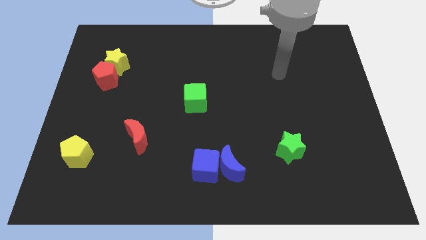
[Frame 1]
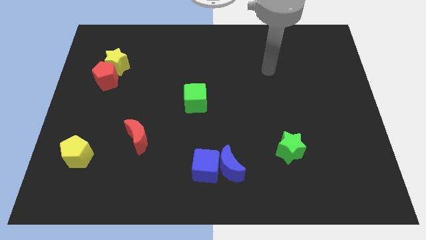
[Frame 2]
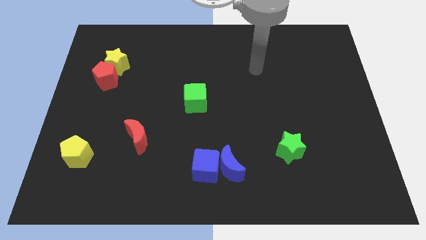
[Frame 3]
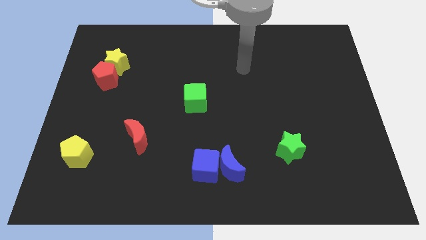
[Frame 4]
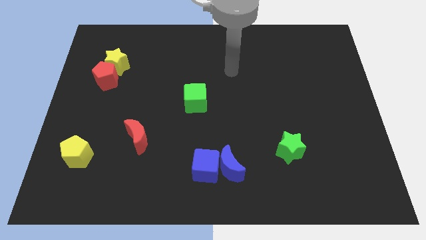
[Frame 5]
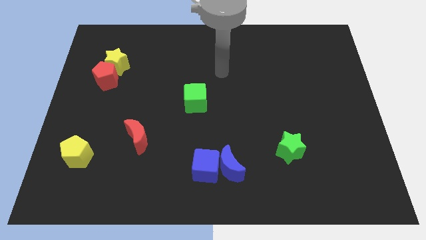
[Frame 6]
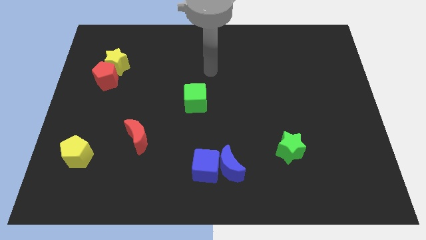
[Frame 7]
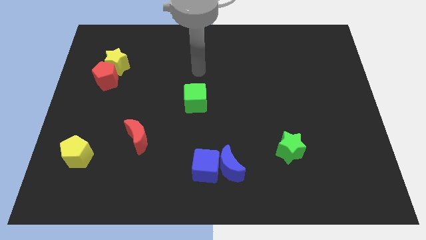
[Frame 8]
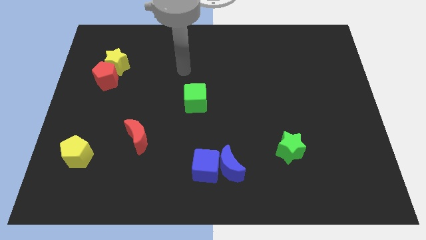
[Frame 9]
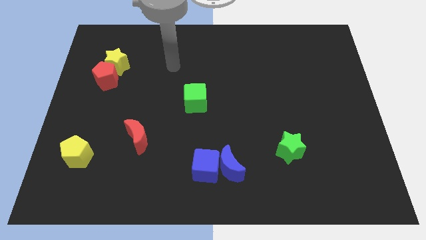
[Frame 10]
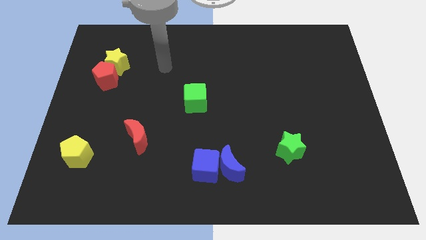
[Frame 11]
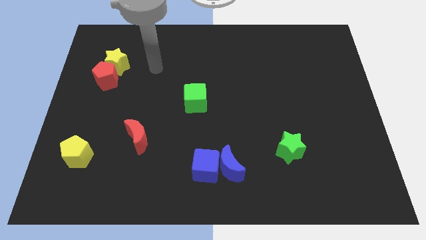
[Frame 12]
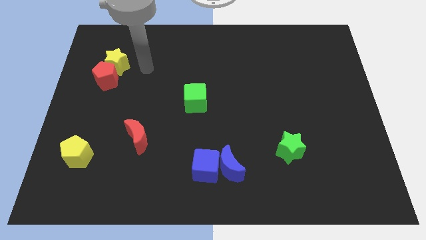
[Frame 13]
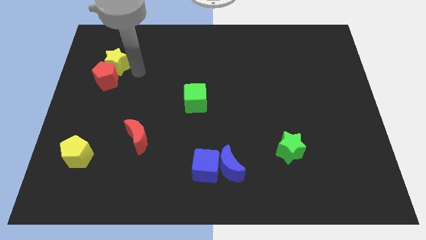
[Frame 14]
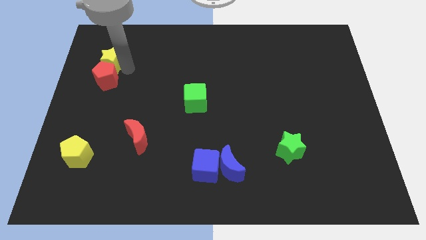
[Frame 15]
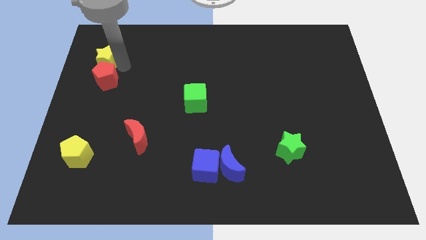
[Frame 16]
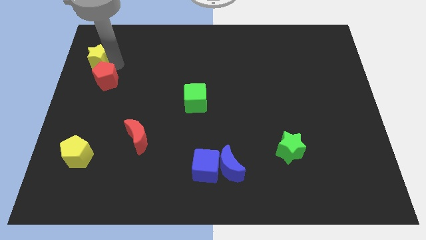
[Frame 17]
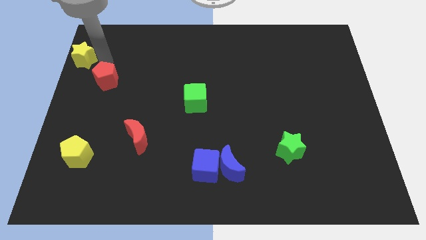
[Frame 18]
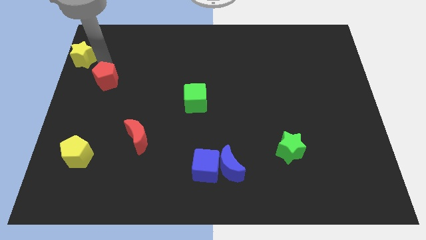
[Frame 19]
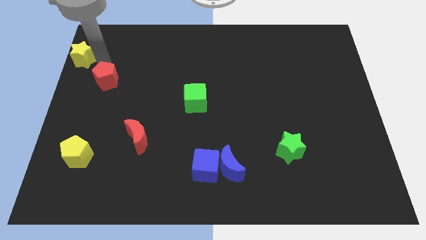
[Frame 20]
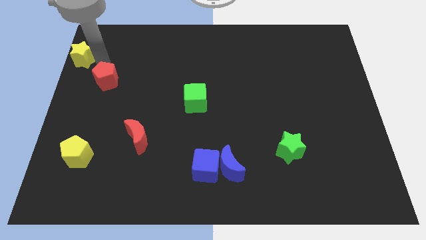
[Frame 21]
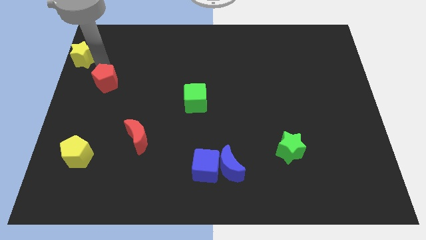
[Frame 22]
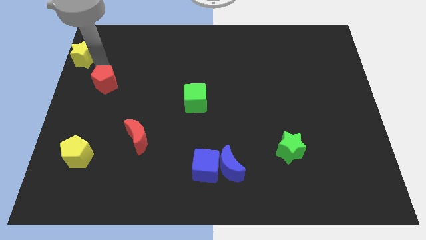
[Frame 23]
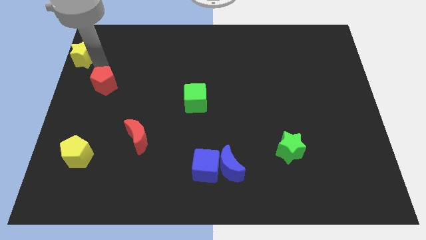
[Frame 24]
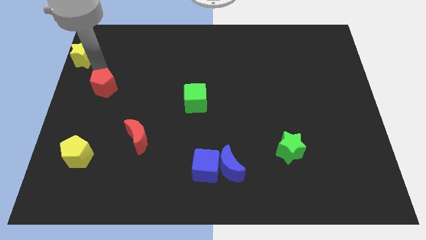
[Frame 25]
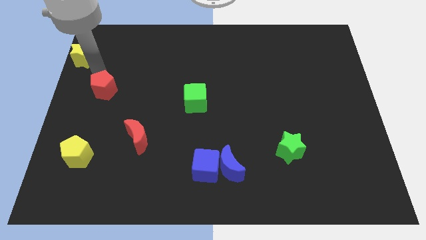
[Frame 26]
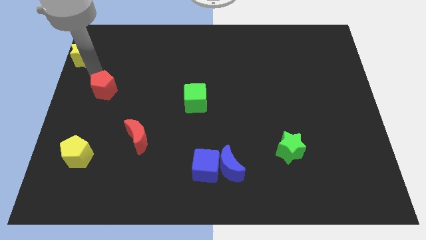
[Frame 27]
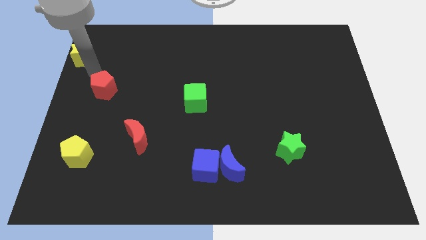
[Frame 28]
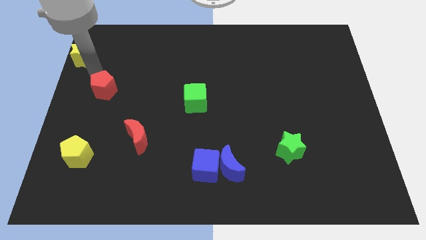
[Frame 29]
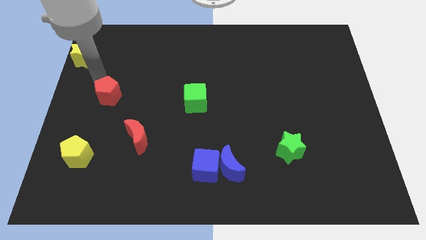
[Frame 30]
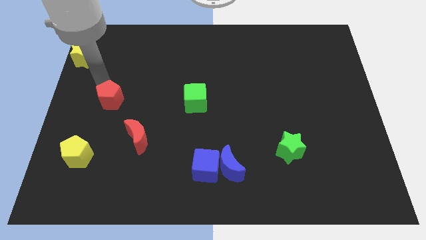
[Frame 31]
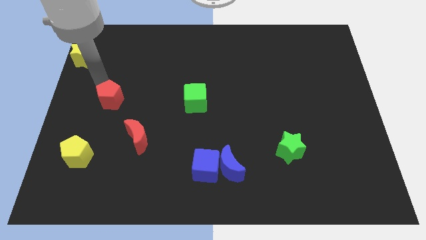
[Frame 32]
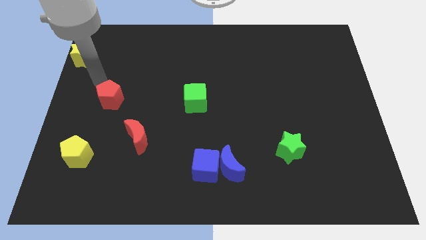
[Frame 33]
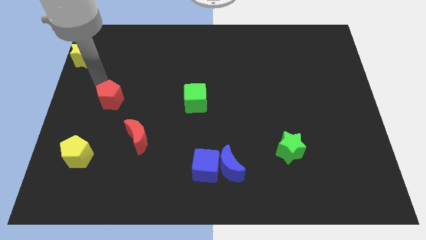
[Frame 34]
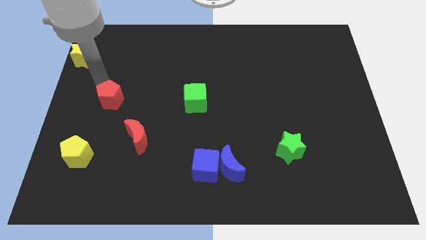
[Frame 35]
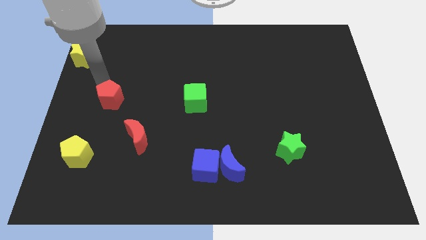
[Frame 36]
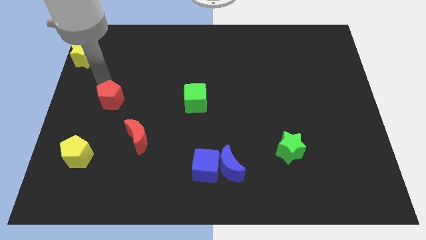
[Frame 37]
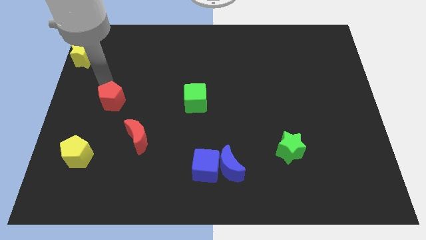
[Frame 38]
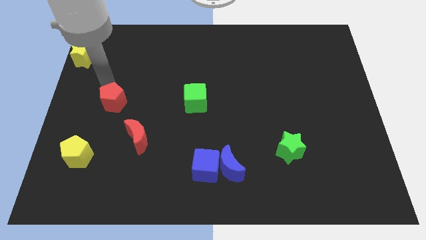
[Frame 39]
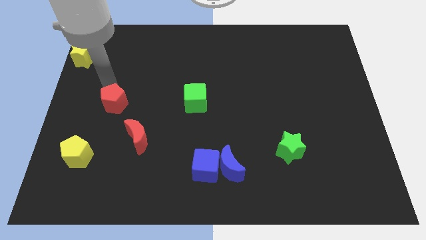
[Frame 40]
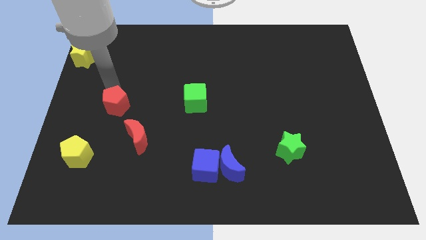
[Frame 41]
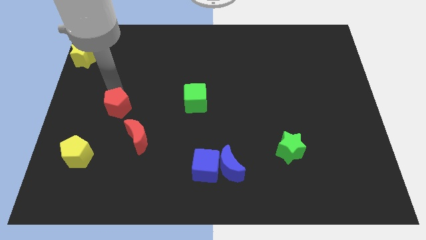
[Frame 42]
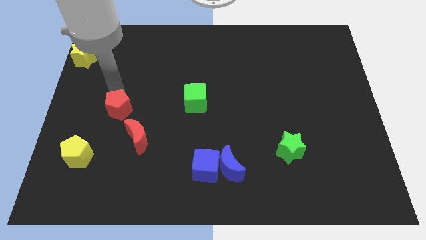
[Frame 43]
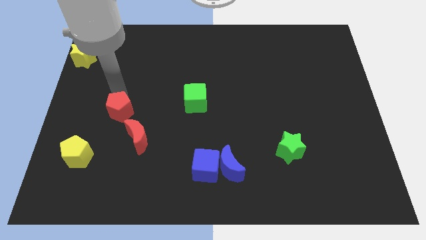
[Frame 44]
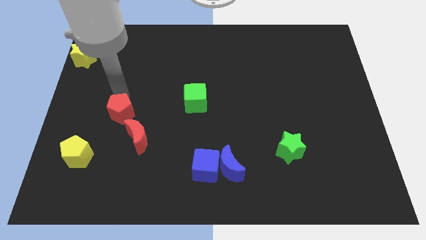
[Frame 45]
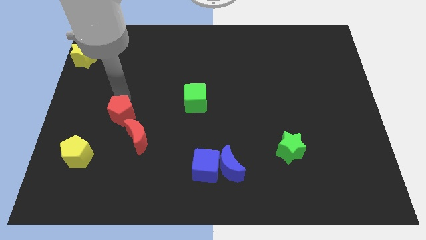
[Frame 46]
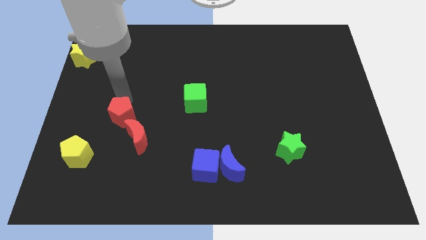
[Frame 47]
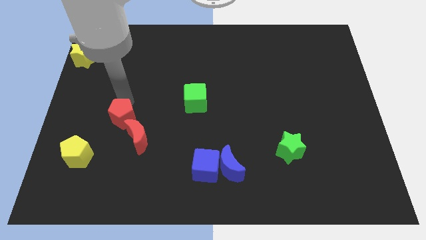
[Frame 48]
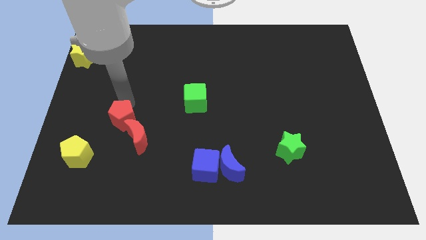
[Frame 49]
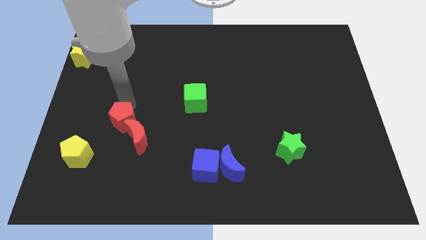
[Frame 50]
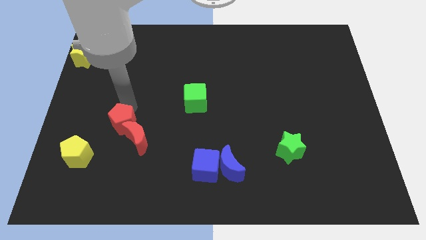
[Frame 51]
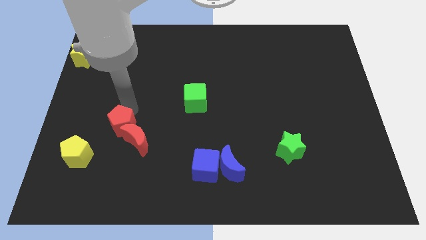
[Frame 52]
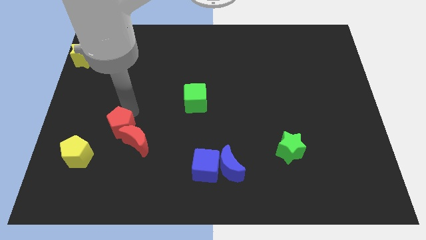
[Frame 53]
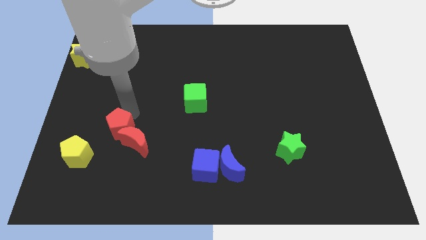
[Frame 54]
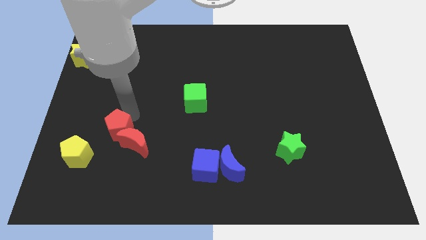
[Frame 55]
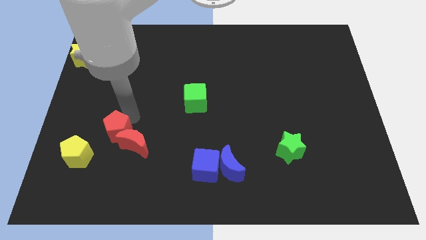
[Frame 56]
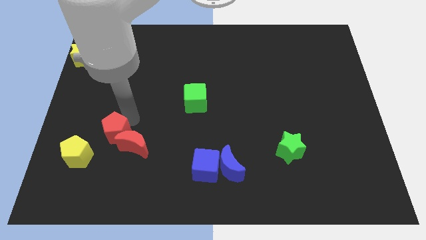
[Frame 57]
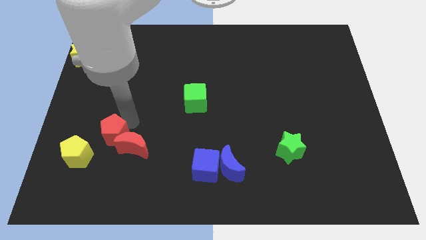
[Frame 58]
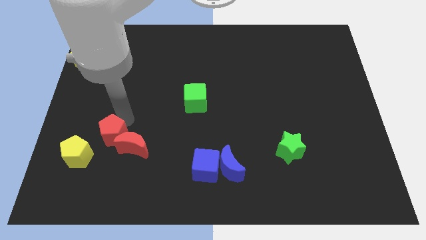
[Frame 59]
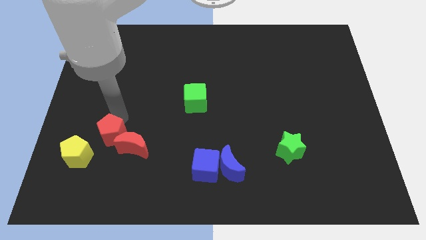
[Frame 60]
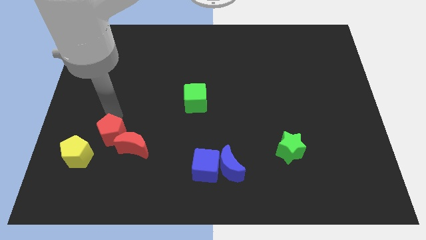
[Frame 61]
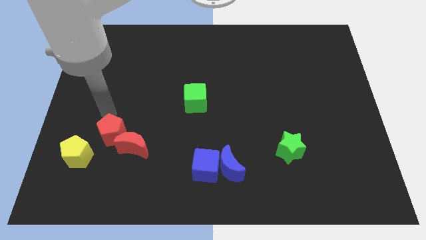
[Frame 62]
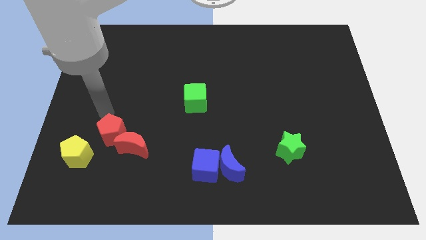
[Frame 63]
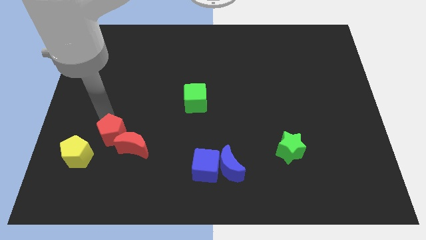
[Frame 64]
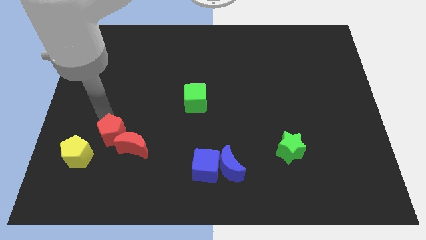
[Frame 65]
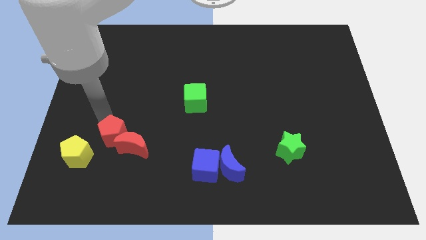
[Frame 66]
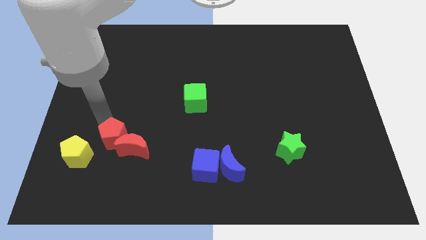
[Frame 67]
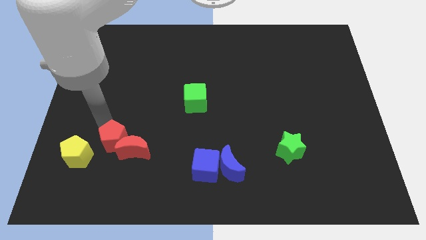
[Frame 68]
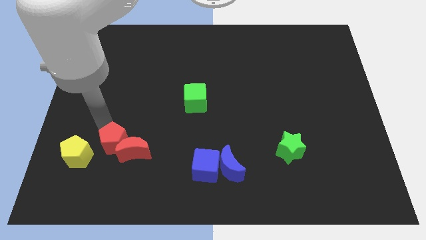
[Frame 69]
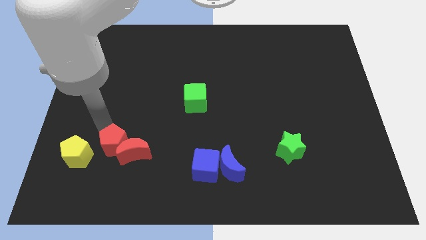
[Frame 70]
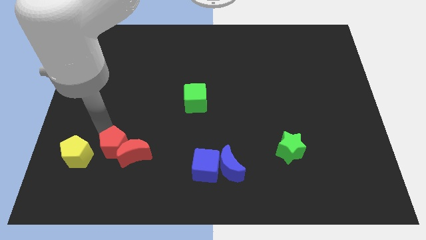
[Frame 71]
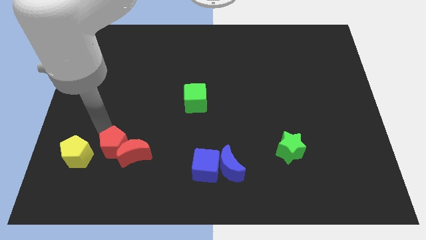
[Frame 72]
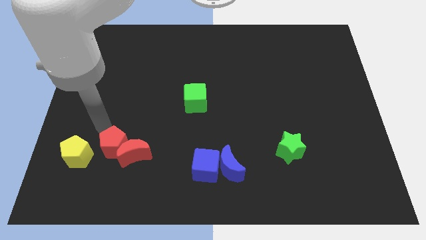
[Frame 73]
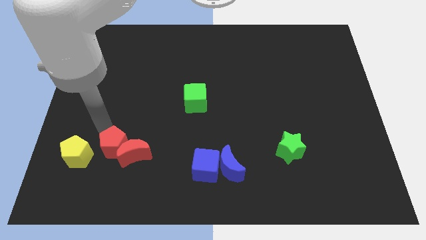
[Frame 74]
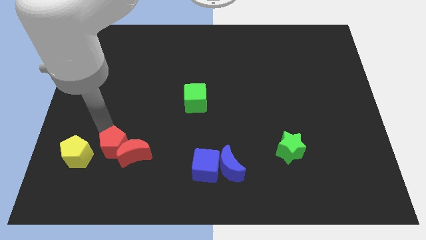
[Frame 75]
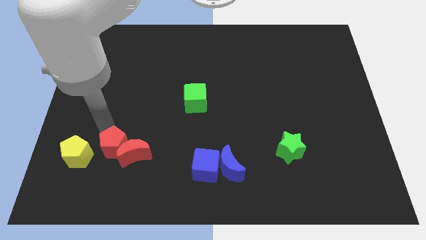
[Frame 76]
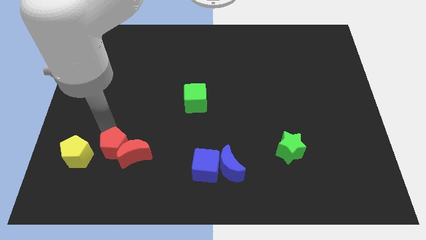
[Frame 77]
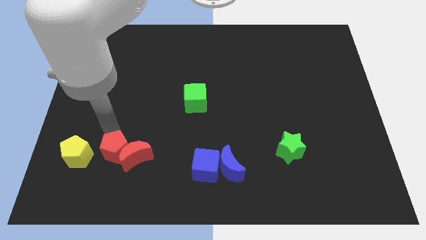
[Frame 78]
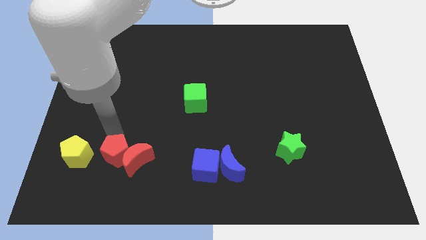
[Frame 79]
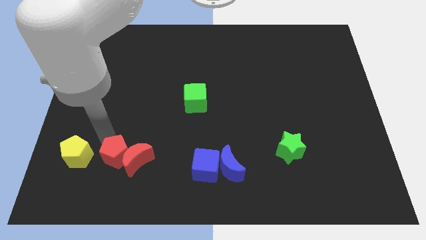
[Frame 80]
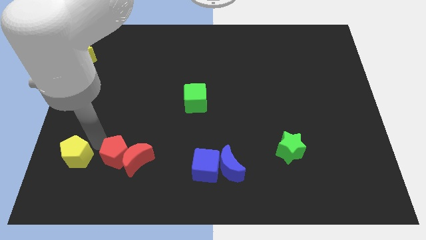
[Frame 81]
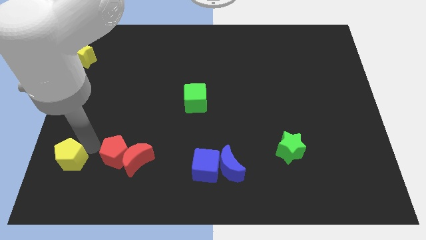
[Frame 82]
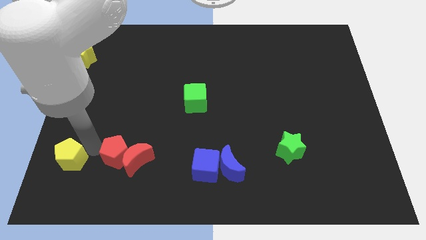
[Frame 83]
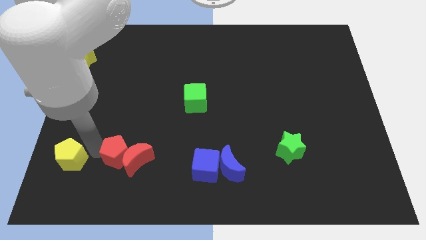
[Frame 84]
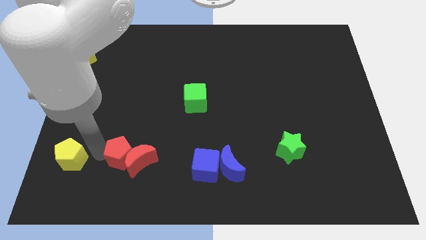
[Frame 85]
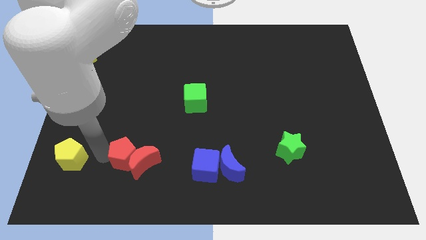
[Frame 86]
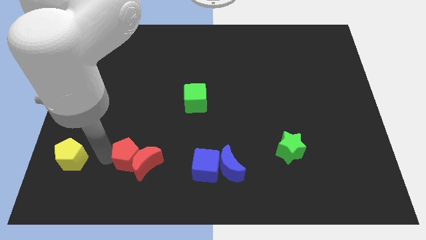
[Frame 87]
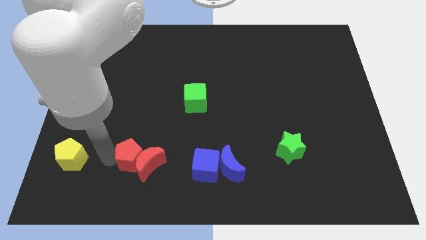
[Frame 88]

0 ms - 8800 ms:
slide the red pentagon left of the blue cube
